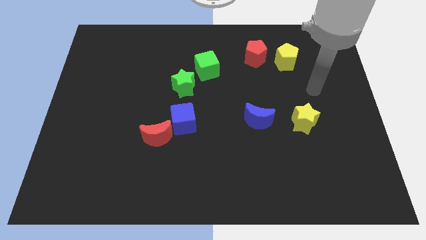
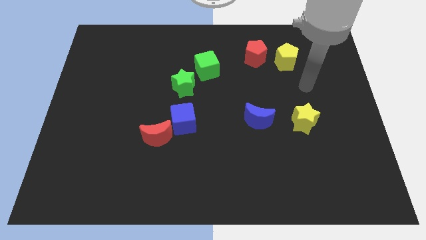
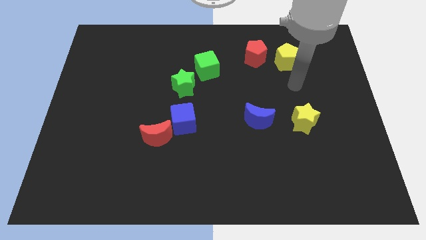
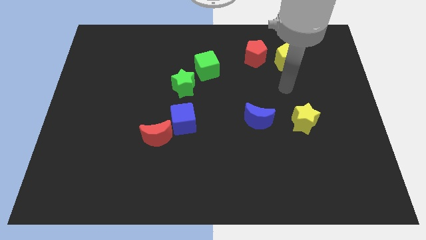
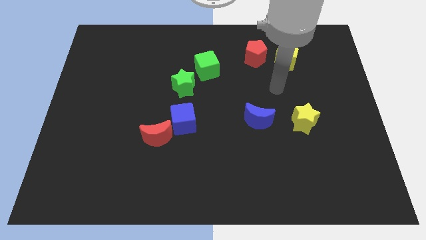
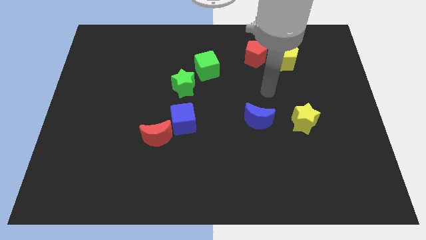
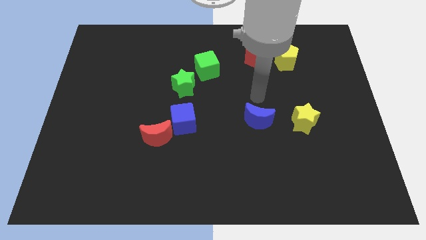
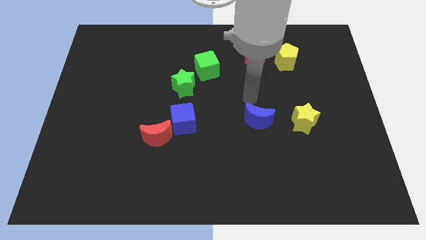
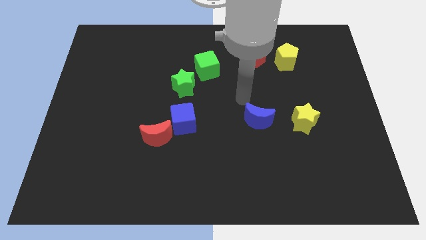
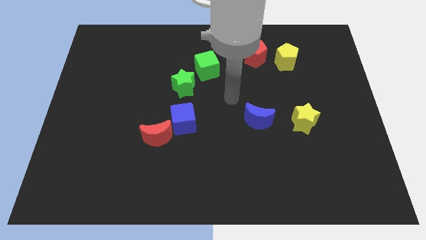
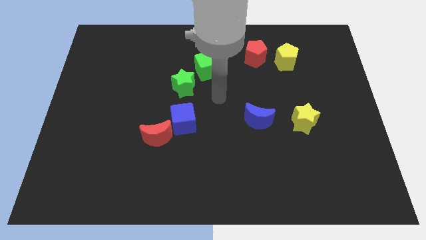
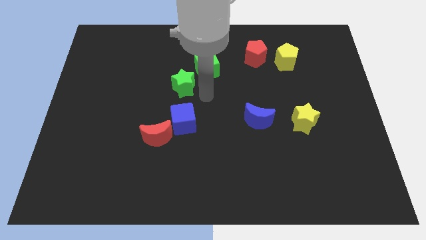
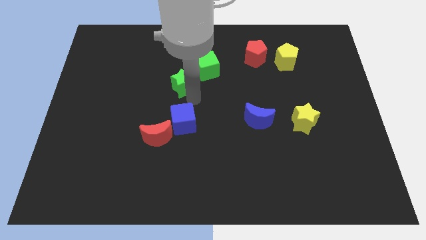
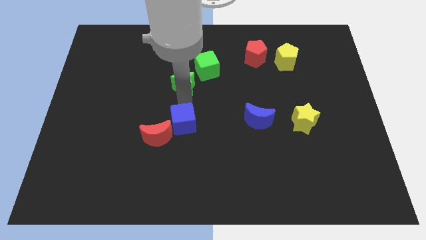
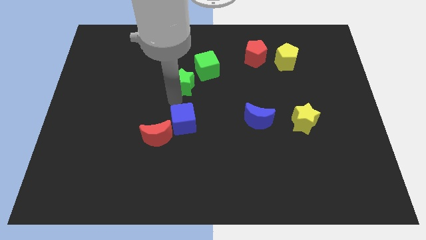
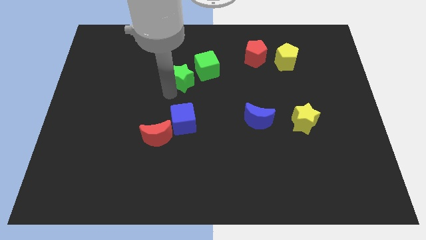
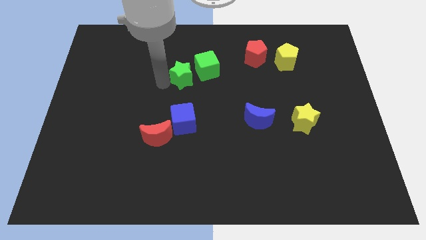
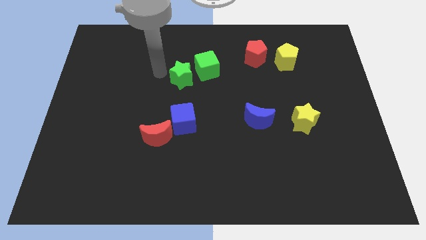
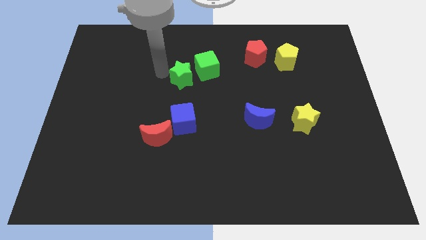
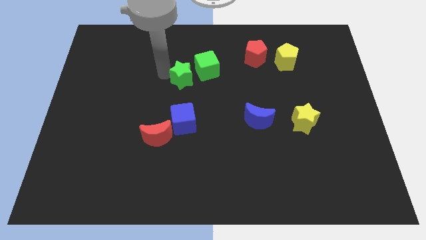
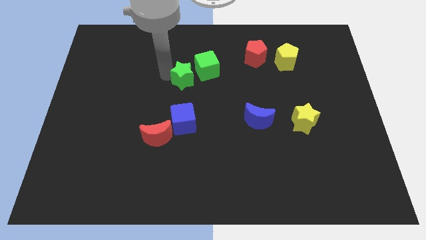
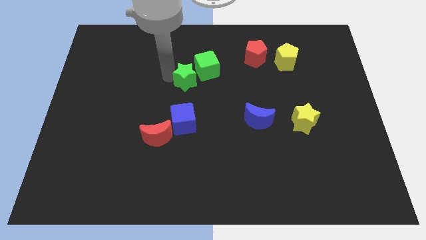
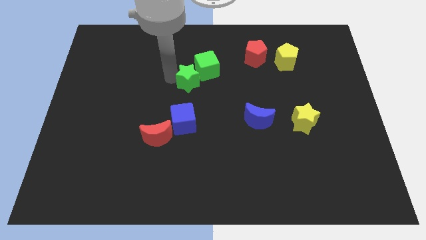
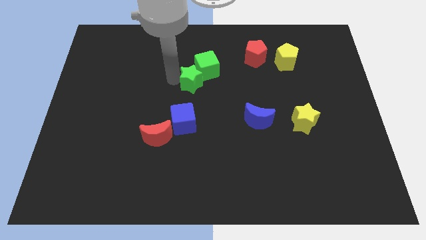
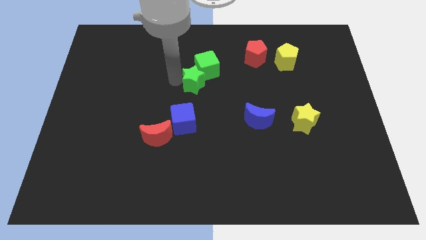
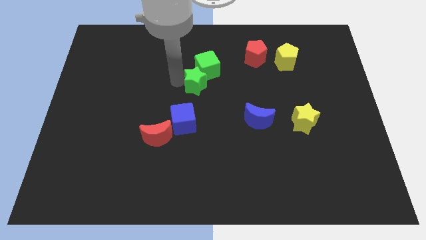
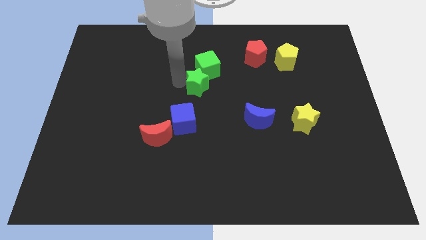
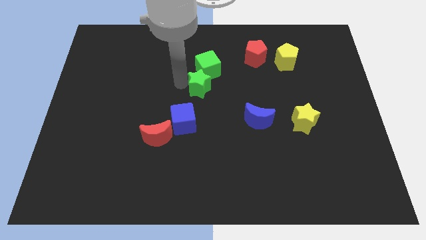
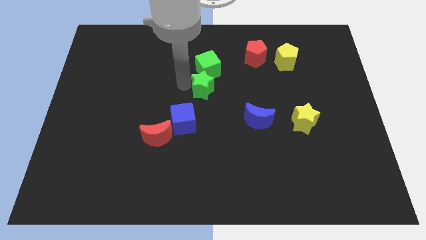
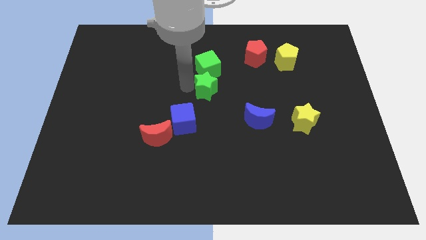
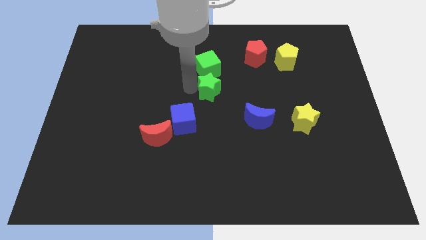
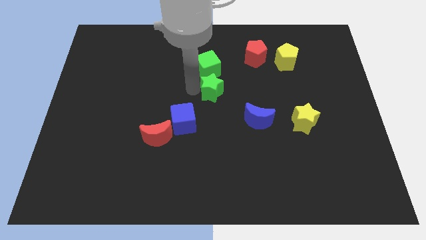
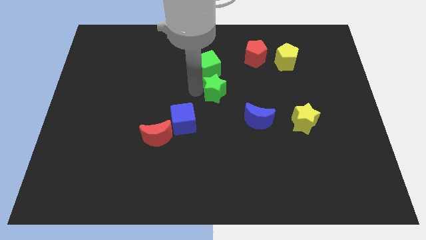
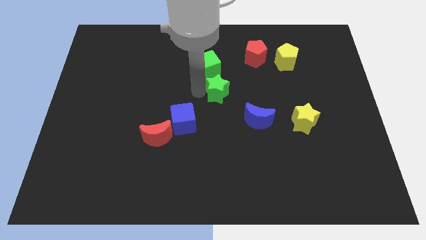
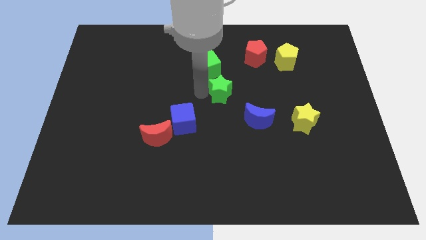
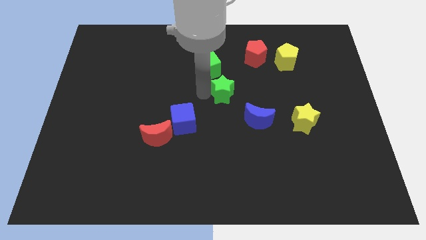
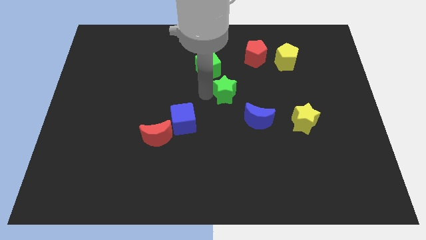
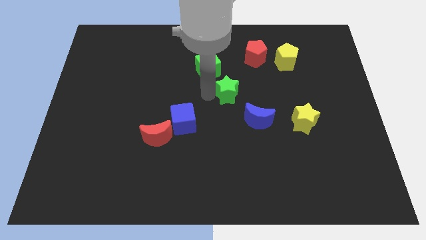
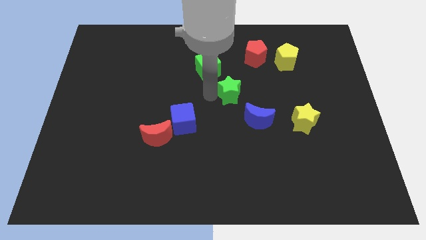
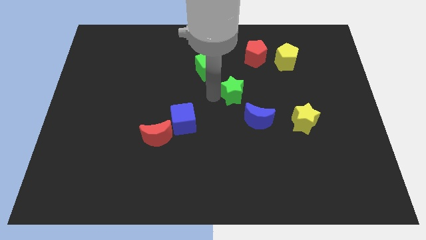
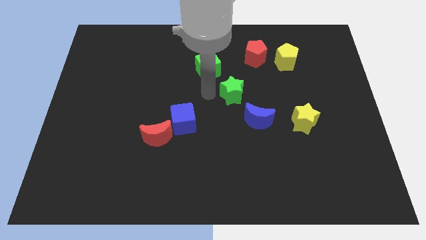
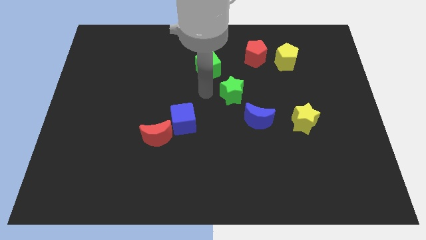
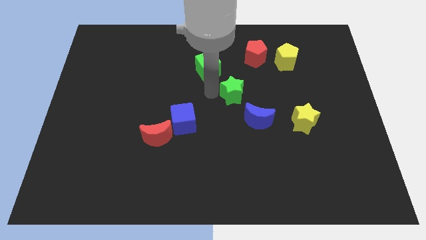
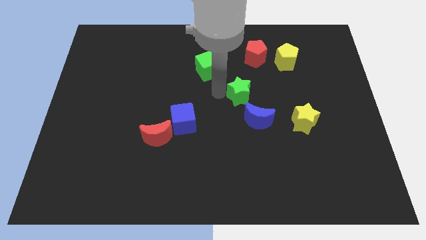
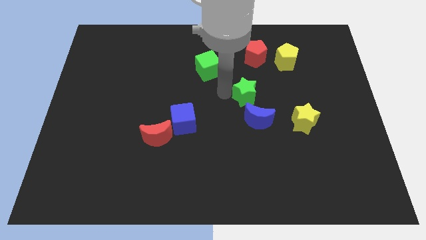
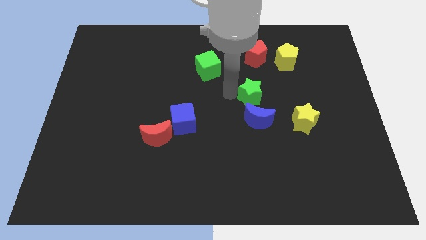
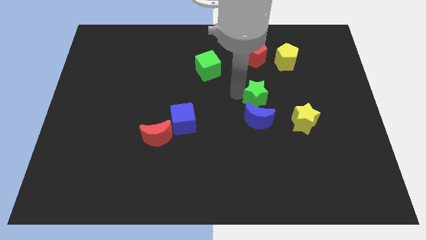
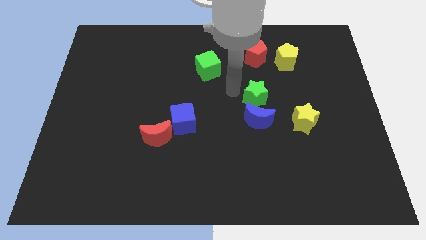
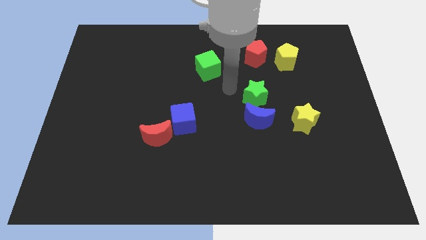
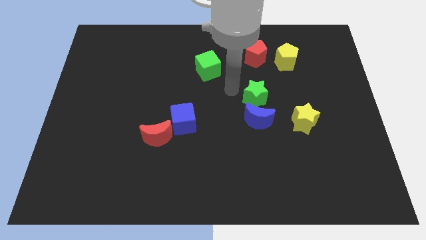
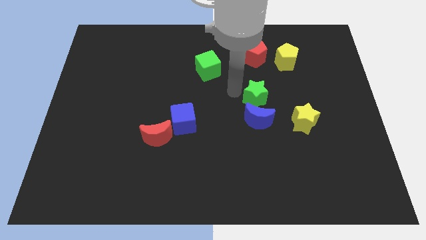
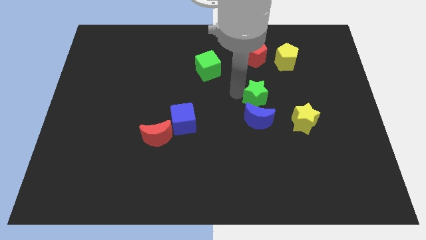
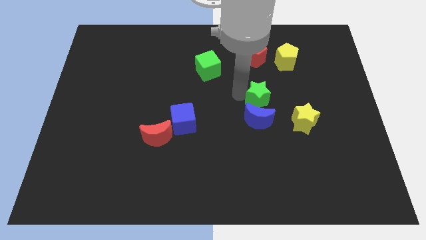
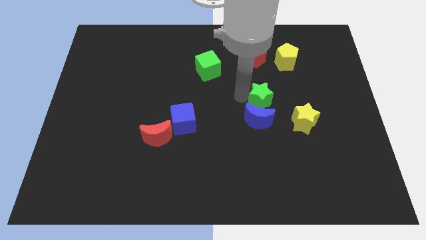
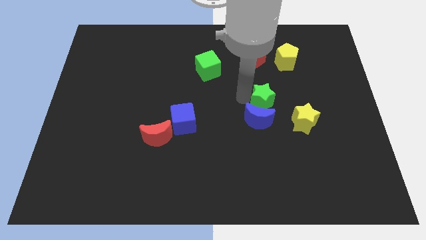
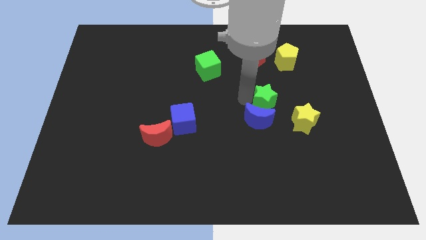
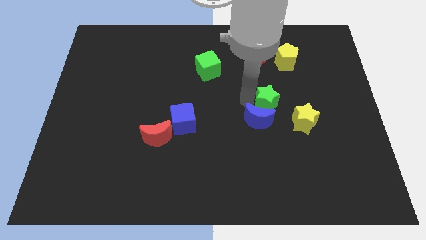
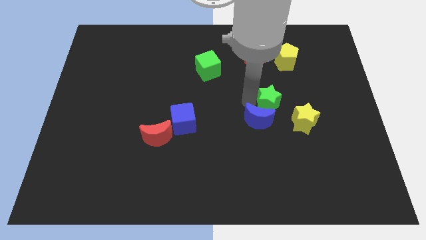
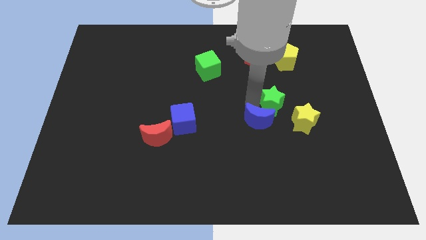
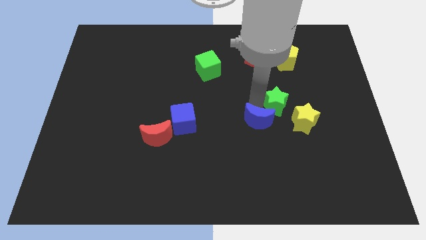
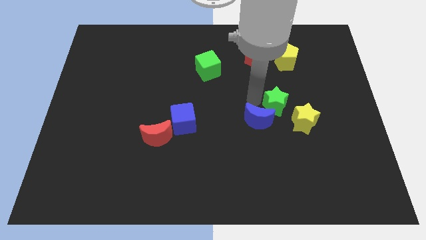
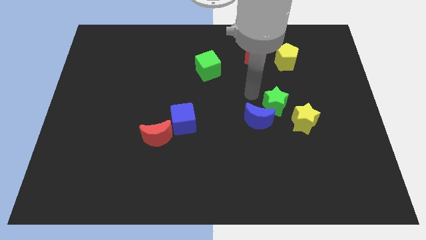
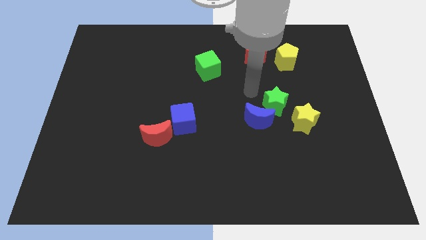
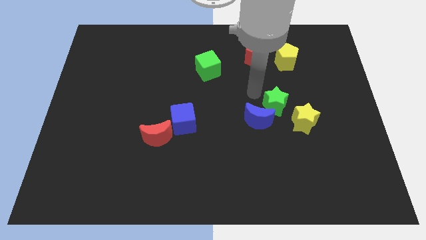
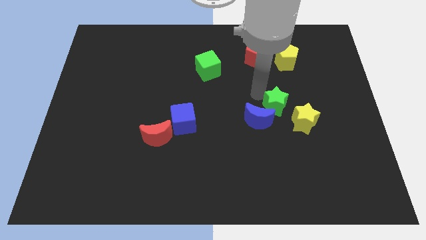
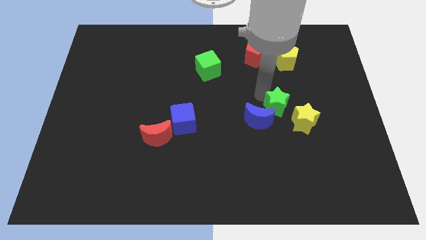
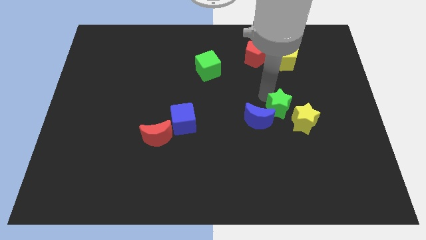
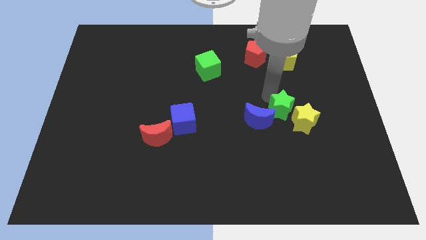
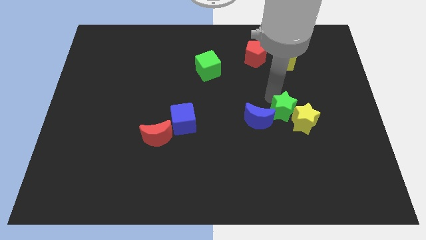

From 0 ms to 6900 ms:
put the green star to the yellow star

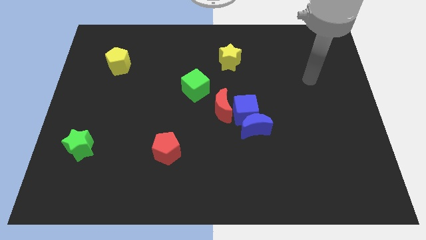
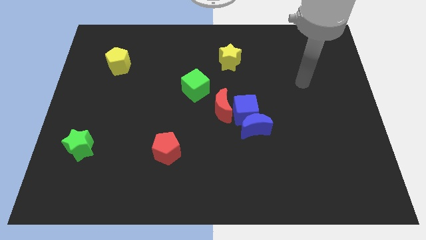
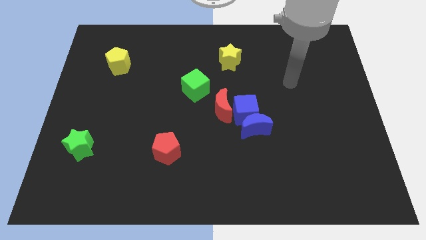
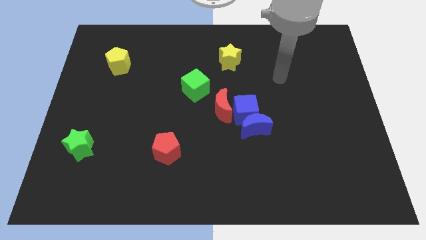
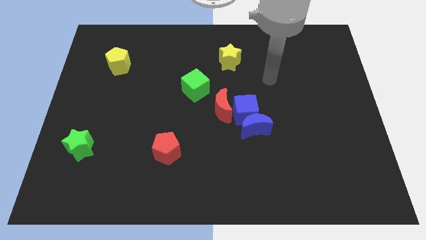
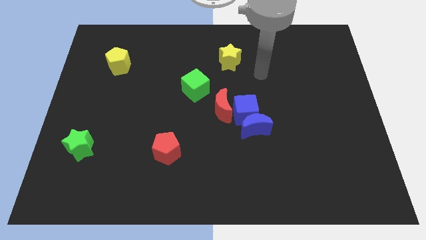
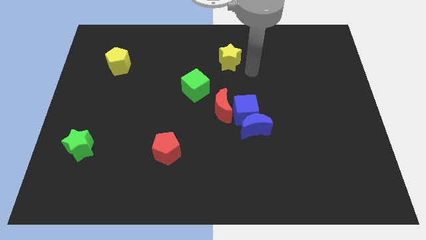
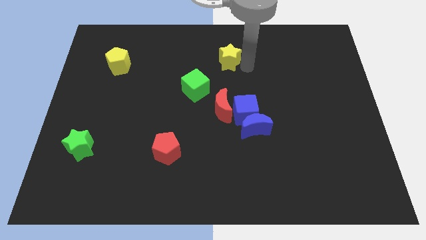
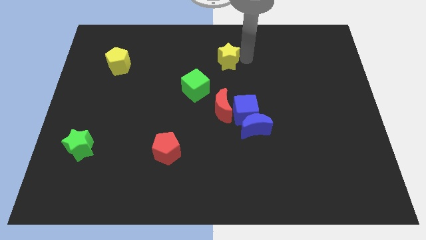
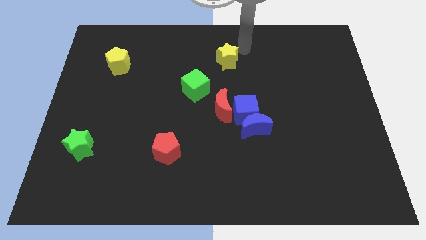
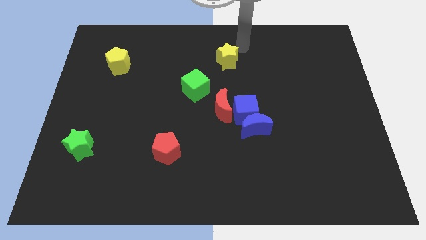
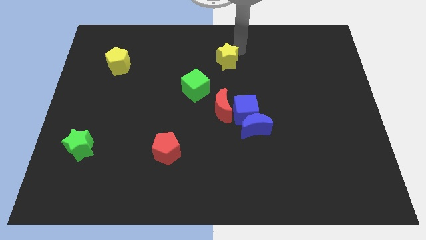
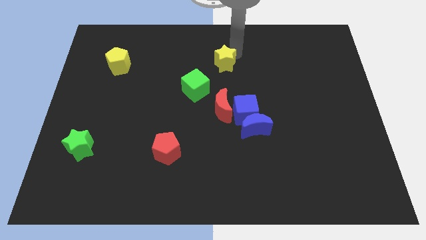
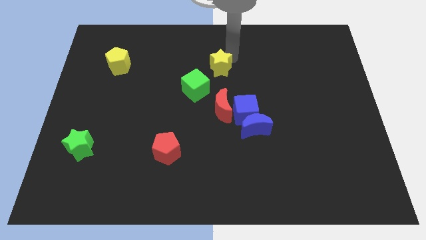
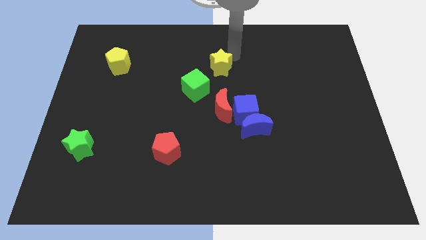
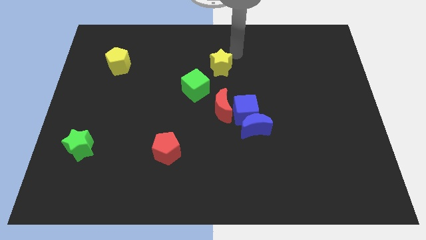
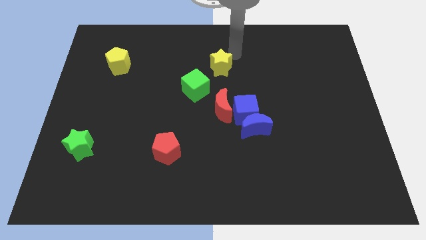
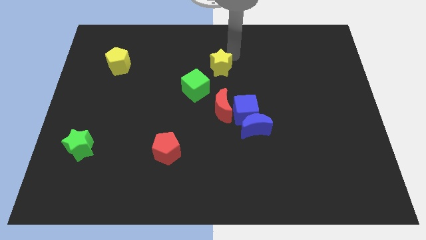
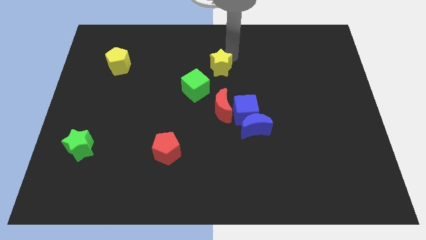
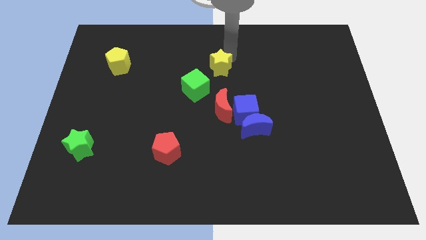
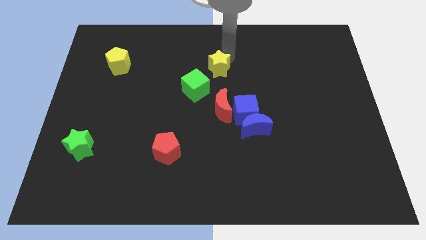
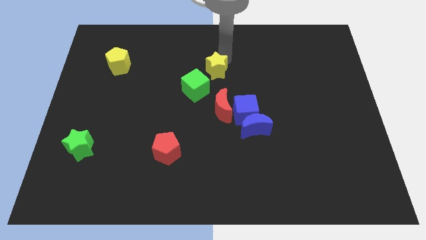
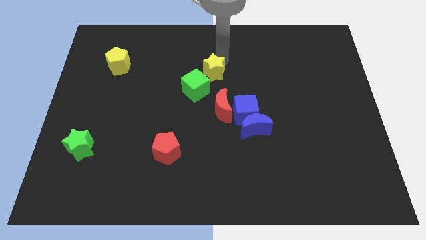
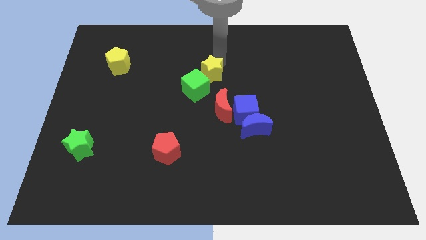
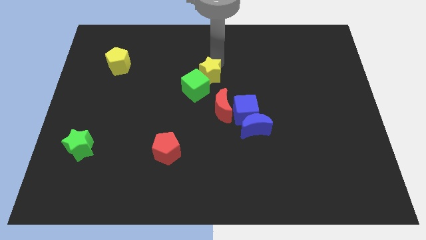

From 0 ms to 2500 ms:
slide the yellow star to the green cube
